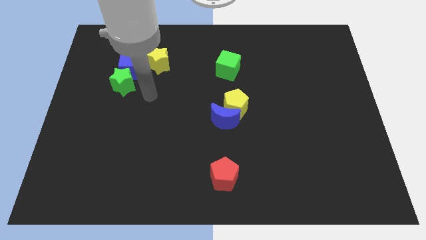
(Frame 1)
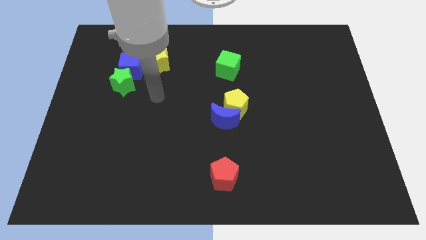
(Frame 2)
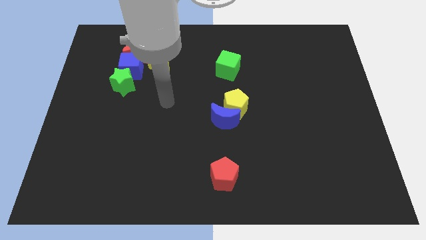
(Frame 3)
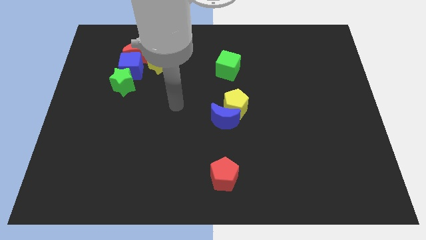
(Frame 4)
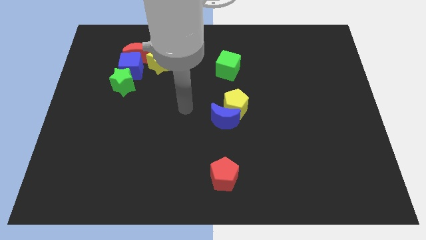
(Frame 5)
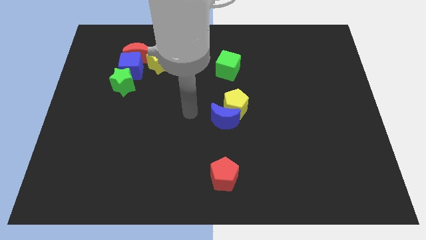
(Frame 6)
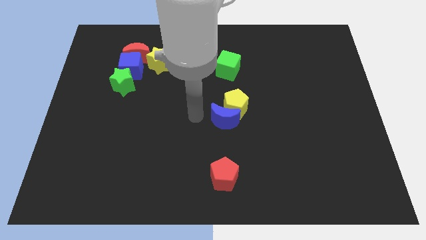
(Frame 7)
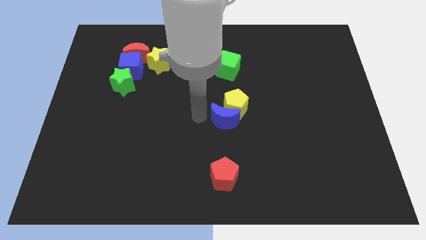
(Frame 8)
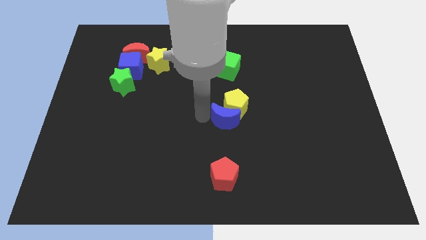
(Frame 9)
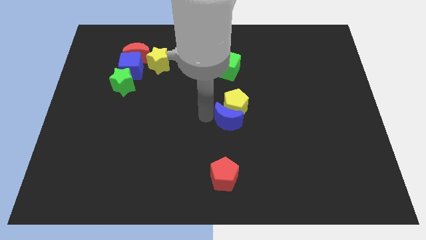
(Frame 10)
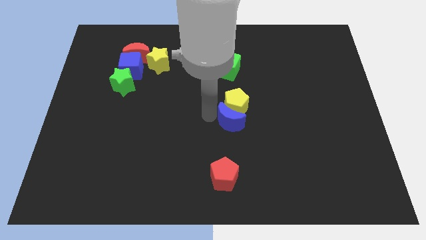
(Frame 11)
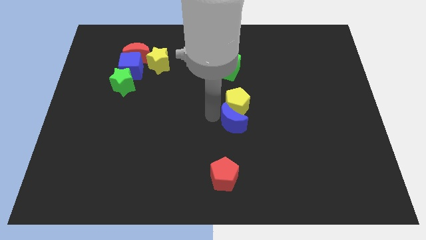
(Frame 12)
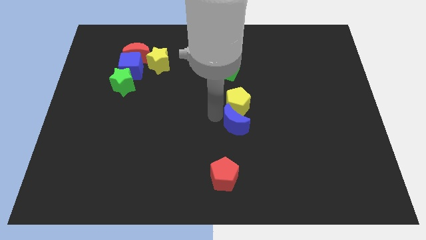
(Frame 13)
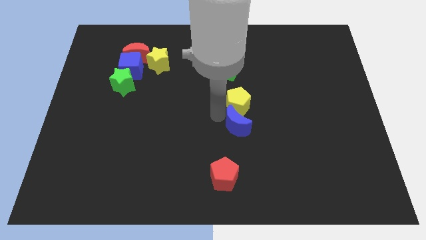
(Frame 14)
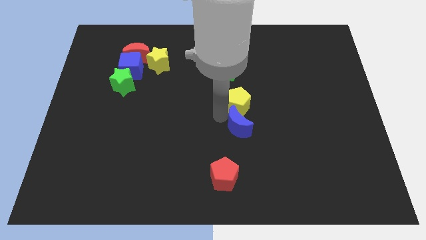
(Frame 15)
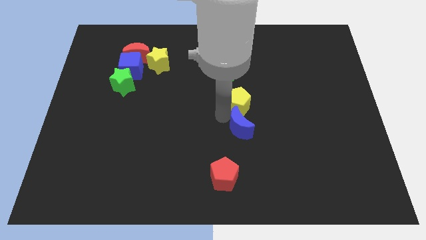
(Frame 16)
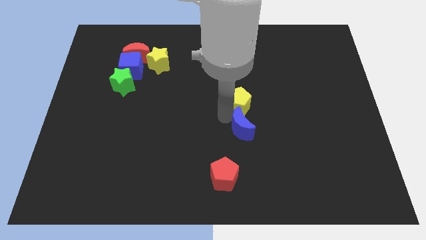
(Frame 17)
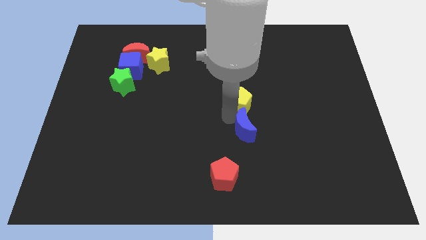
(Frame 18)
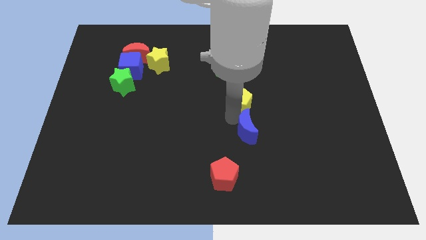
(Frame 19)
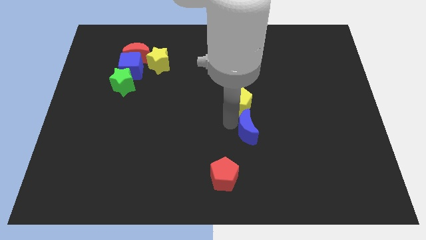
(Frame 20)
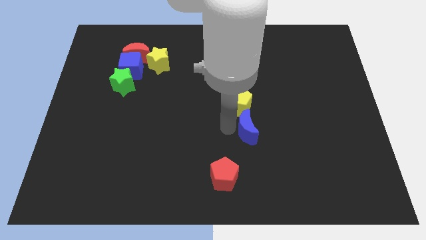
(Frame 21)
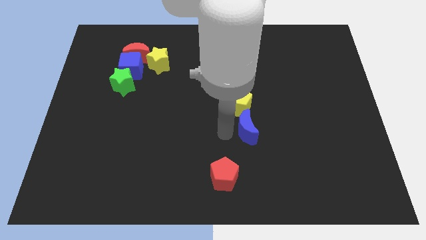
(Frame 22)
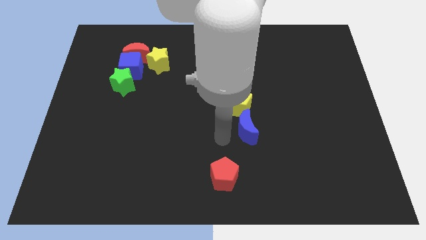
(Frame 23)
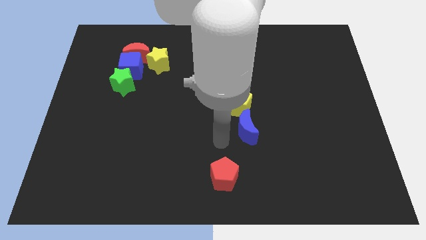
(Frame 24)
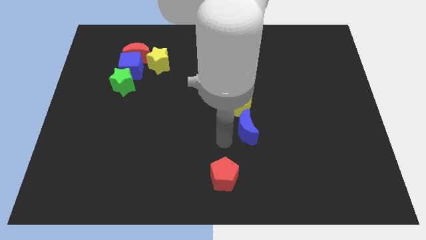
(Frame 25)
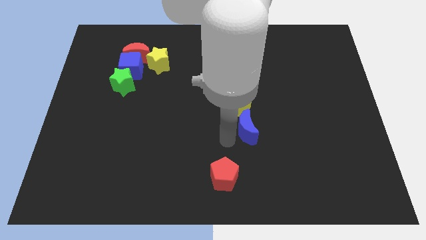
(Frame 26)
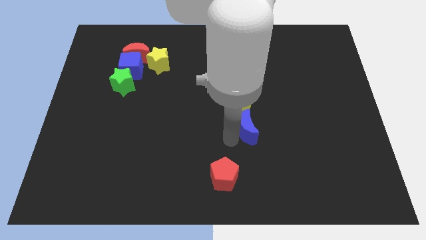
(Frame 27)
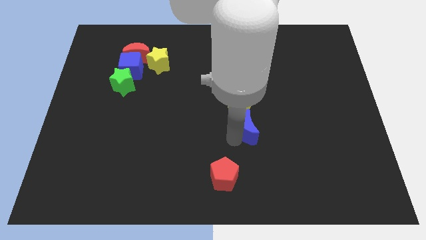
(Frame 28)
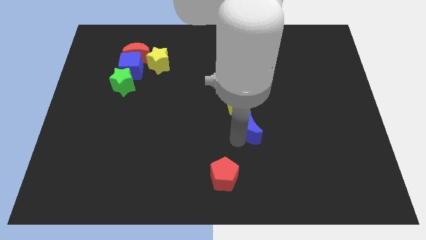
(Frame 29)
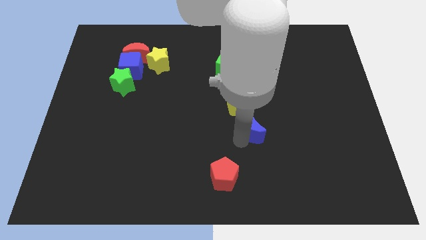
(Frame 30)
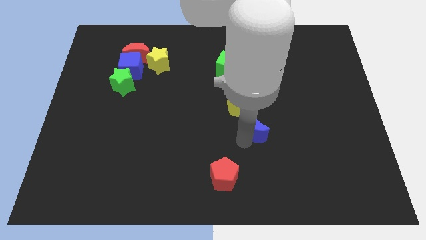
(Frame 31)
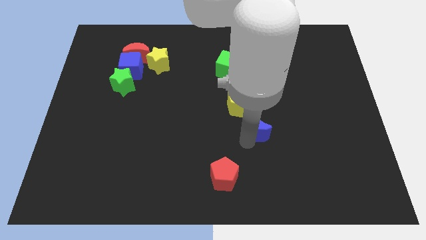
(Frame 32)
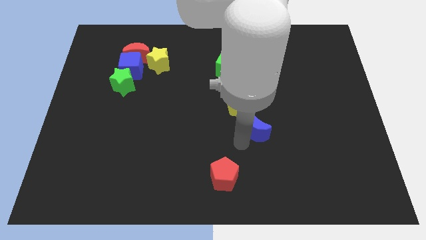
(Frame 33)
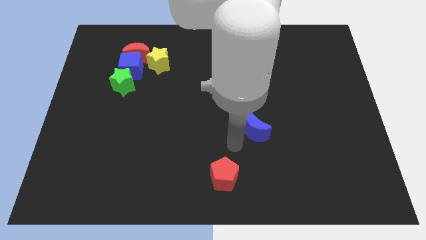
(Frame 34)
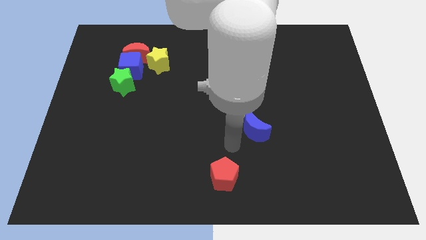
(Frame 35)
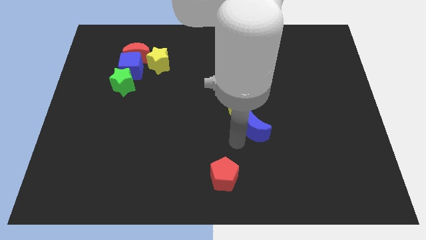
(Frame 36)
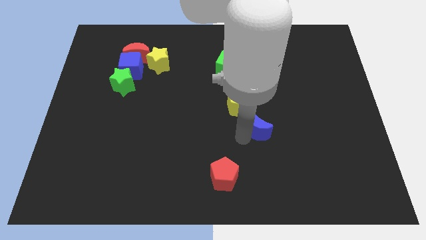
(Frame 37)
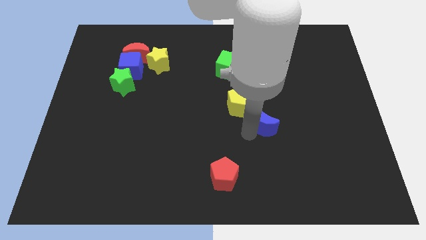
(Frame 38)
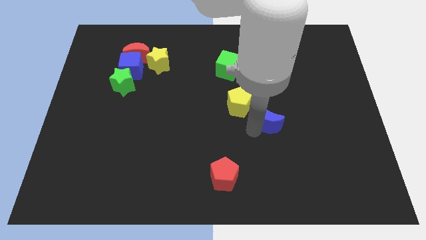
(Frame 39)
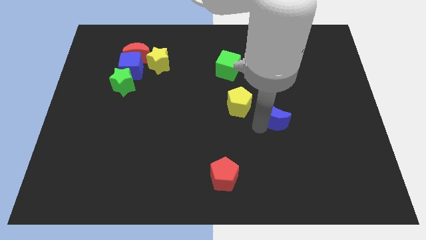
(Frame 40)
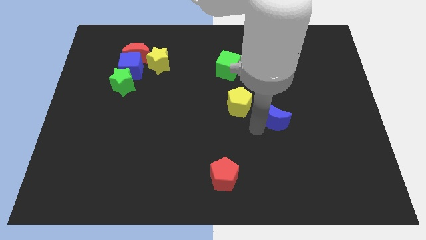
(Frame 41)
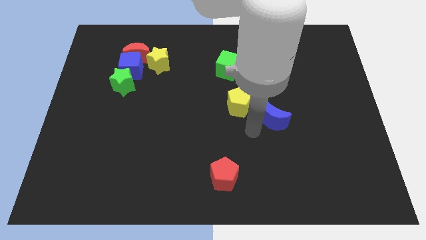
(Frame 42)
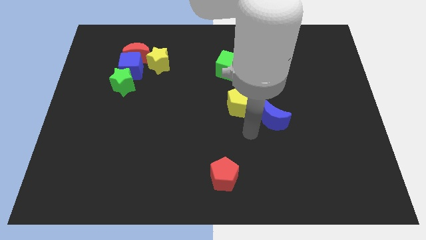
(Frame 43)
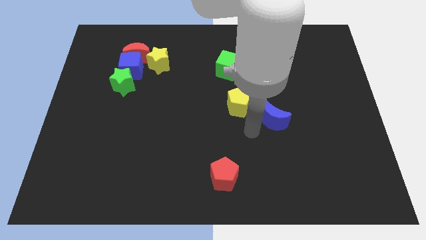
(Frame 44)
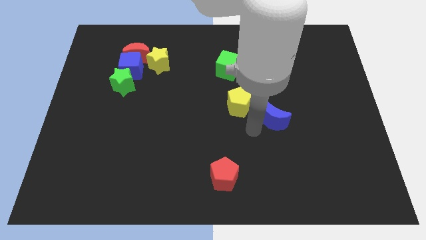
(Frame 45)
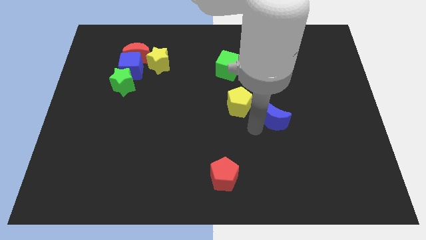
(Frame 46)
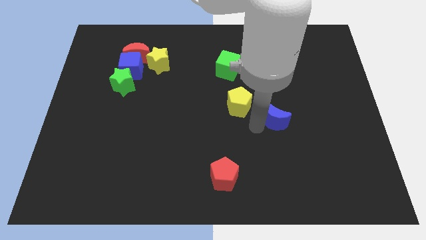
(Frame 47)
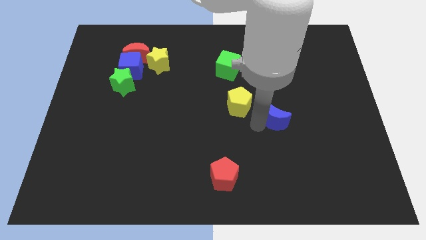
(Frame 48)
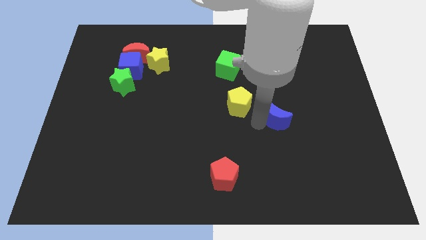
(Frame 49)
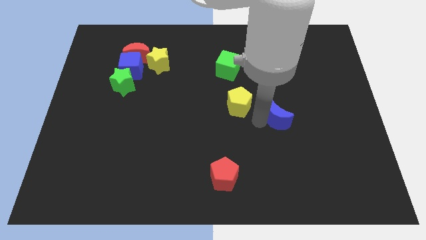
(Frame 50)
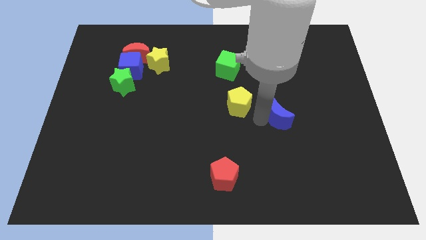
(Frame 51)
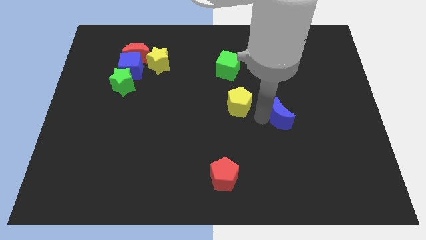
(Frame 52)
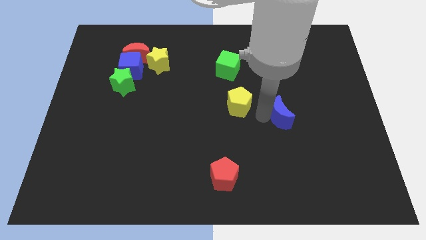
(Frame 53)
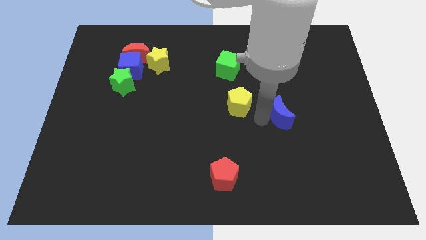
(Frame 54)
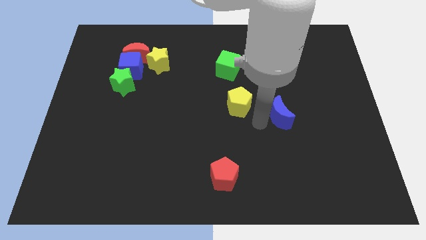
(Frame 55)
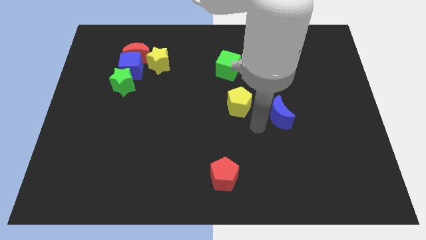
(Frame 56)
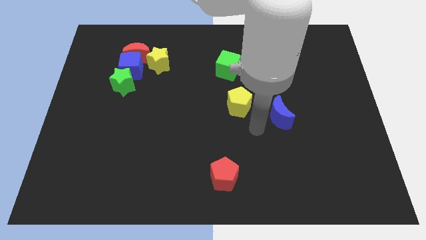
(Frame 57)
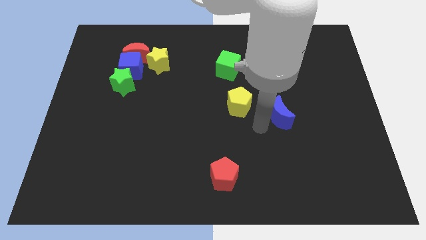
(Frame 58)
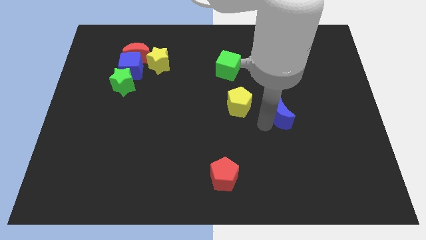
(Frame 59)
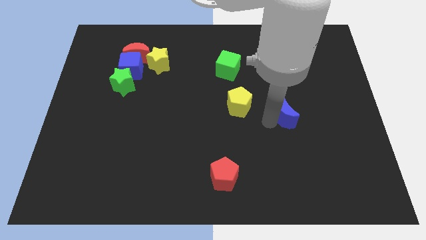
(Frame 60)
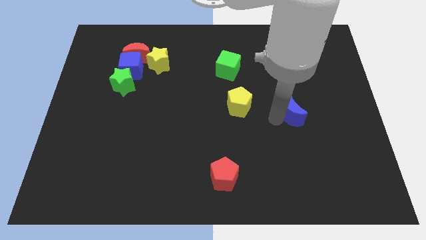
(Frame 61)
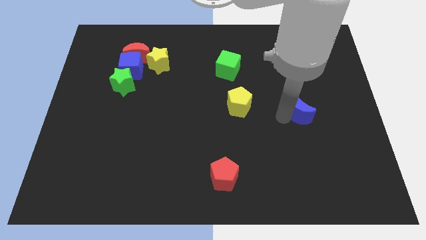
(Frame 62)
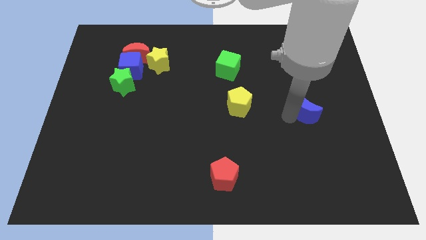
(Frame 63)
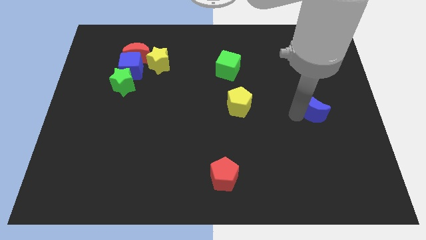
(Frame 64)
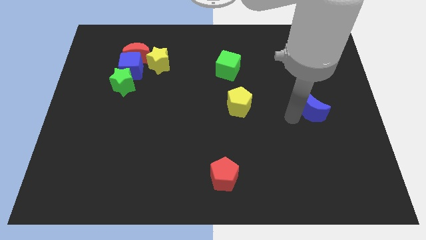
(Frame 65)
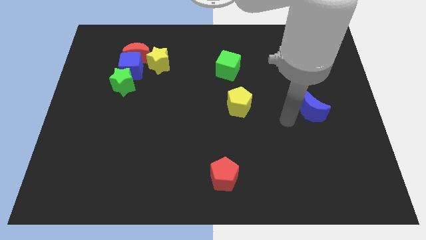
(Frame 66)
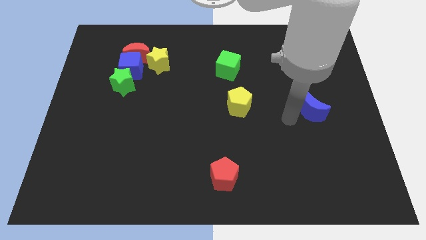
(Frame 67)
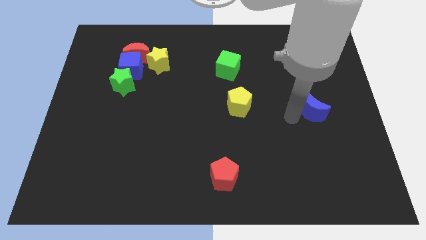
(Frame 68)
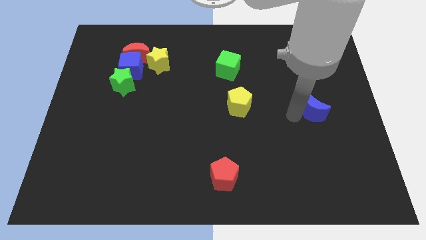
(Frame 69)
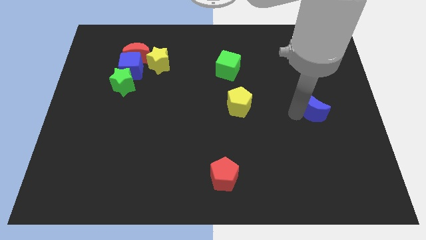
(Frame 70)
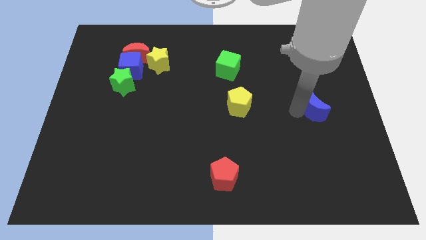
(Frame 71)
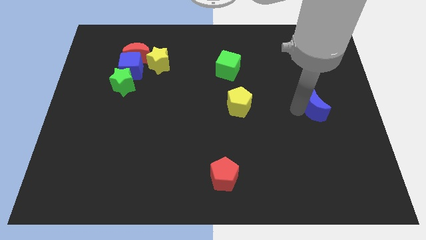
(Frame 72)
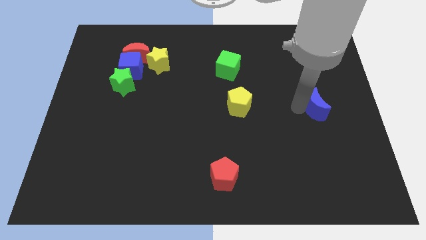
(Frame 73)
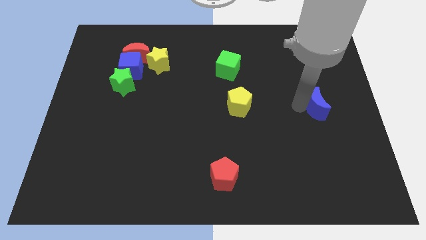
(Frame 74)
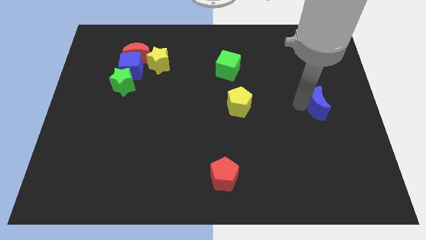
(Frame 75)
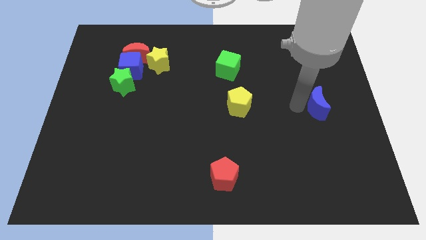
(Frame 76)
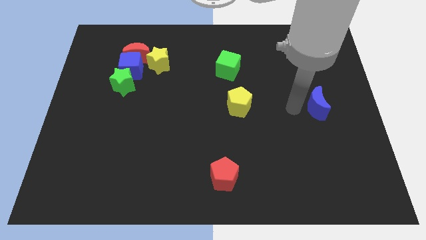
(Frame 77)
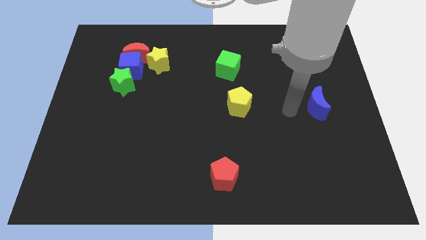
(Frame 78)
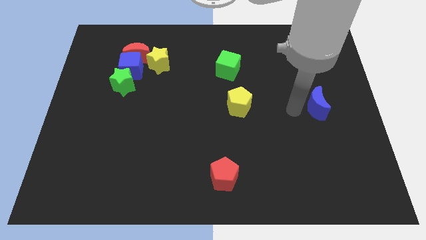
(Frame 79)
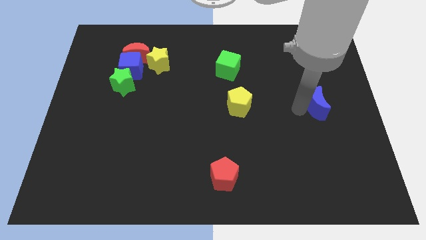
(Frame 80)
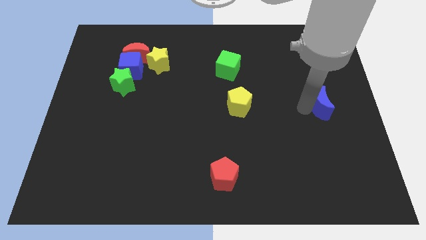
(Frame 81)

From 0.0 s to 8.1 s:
move the blue moon to the right side
